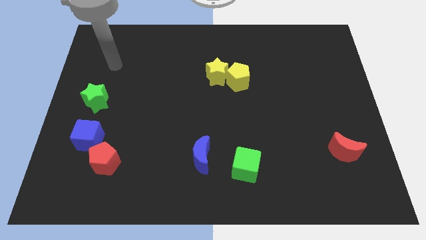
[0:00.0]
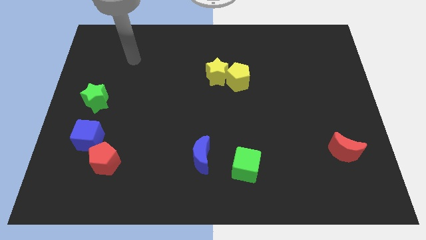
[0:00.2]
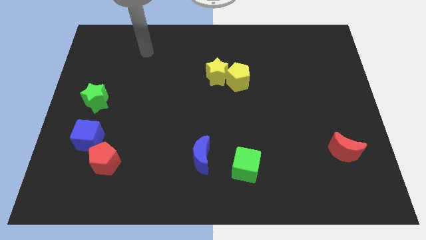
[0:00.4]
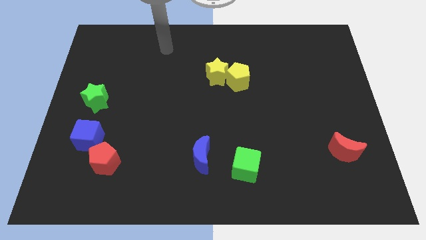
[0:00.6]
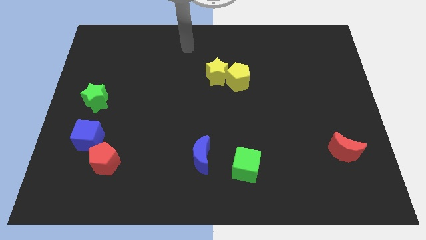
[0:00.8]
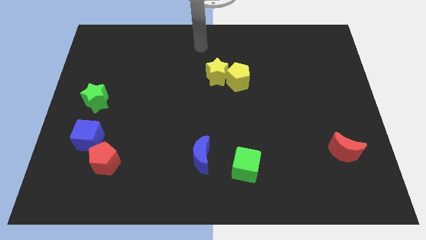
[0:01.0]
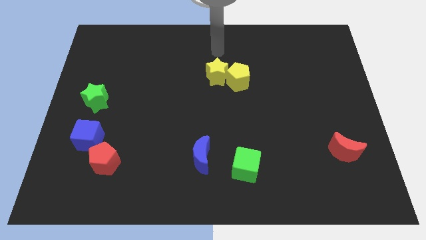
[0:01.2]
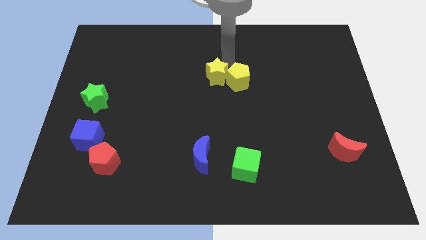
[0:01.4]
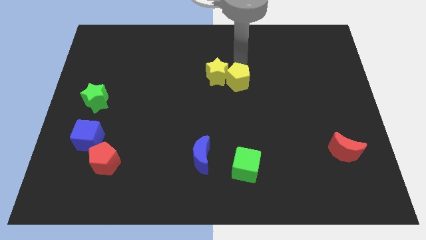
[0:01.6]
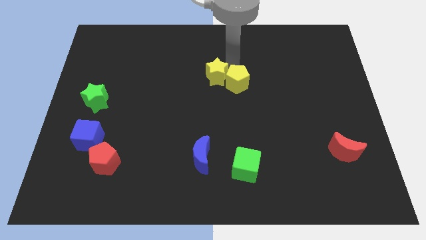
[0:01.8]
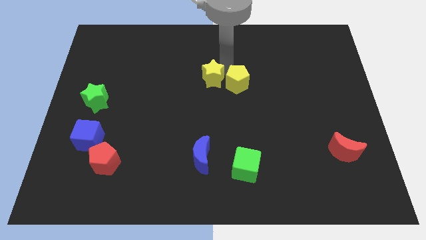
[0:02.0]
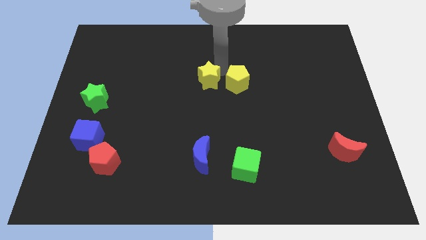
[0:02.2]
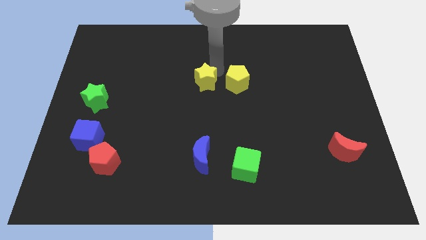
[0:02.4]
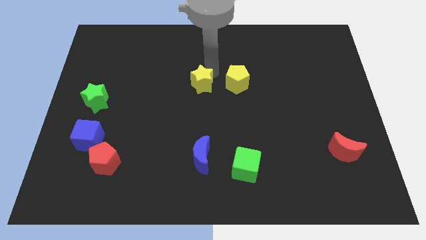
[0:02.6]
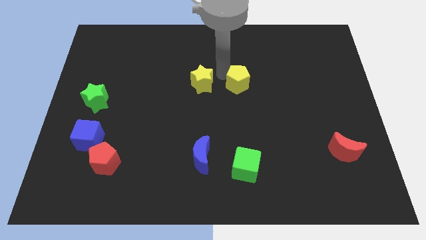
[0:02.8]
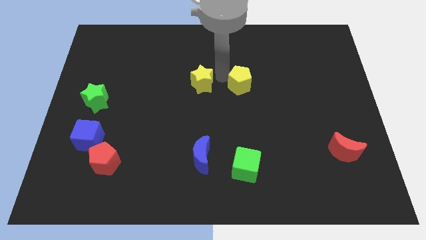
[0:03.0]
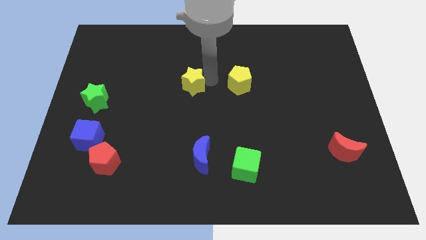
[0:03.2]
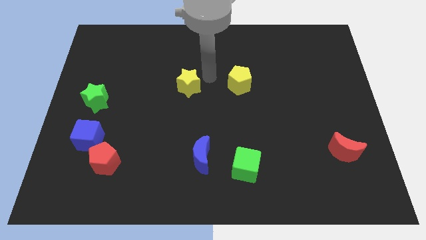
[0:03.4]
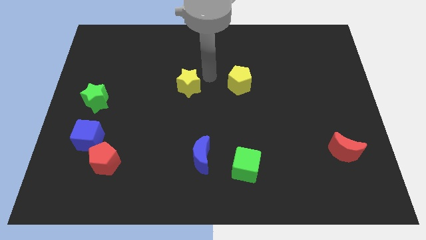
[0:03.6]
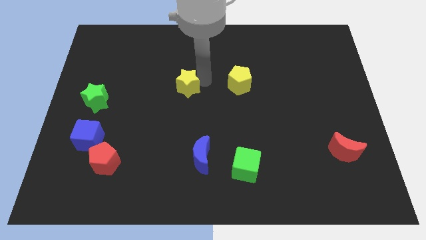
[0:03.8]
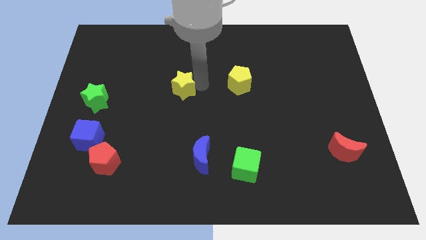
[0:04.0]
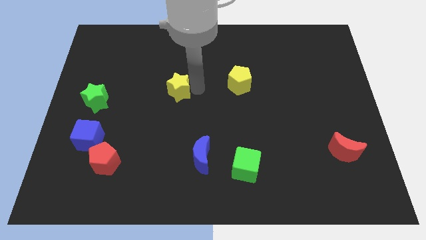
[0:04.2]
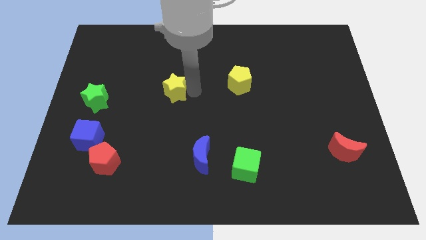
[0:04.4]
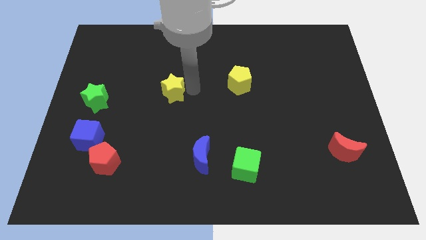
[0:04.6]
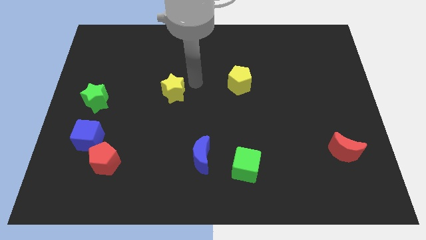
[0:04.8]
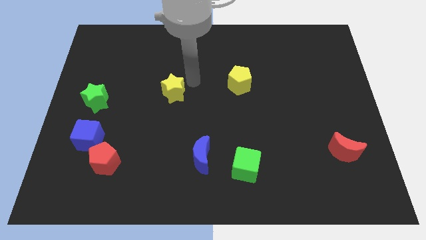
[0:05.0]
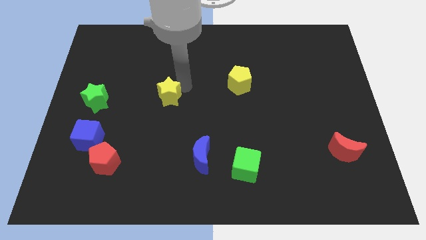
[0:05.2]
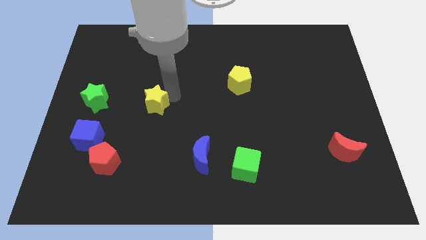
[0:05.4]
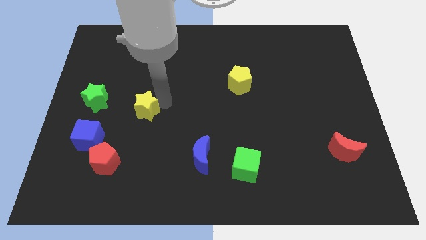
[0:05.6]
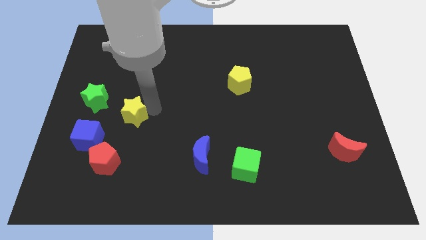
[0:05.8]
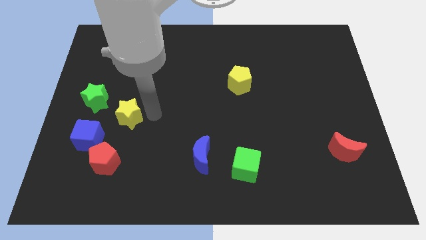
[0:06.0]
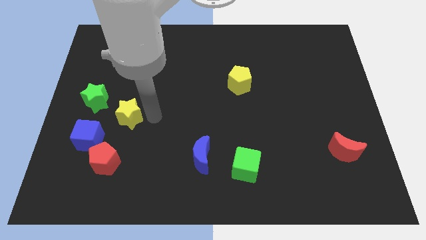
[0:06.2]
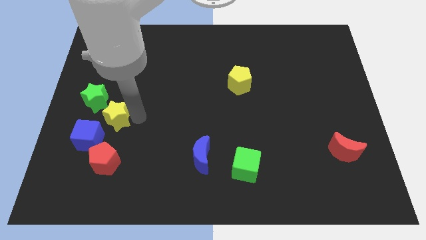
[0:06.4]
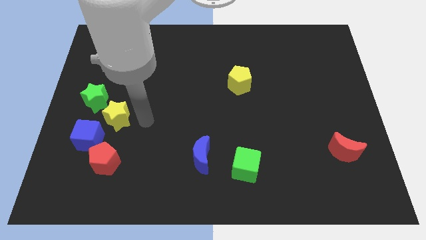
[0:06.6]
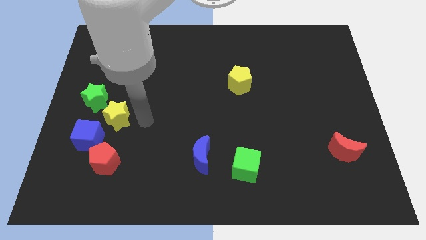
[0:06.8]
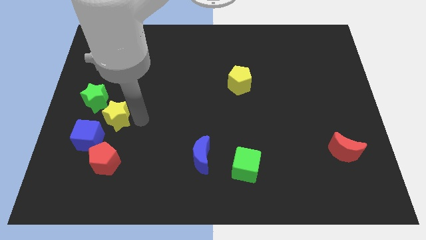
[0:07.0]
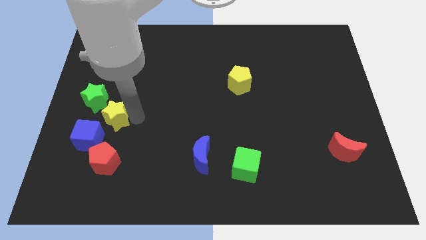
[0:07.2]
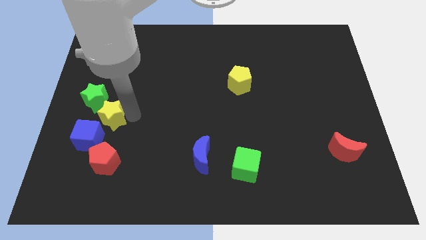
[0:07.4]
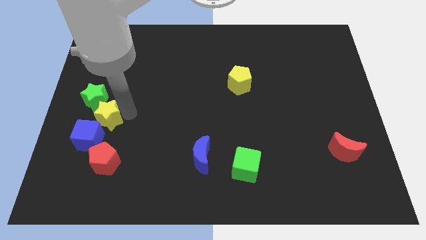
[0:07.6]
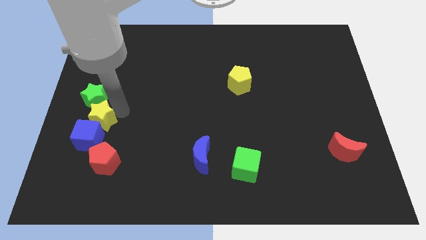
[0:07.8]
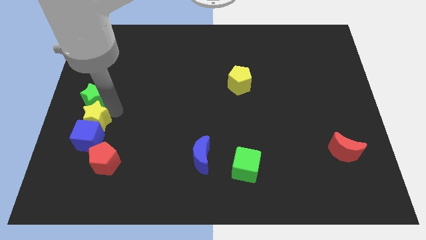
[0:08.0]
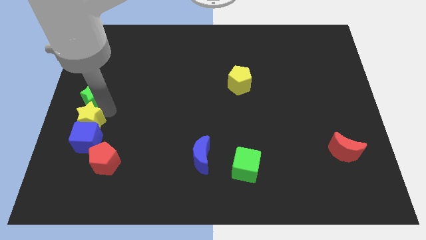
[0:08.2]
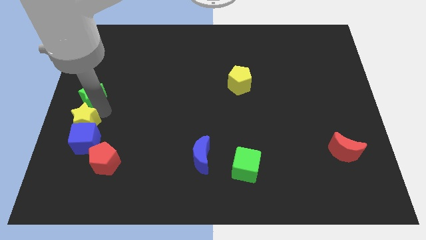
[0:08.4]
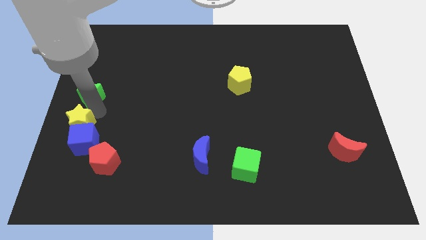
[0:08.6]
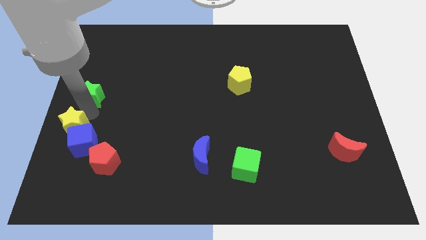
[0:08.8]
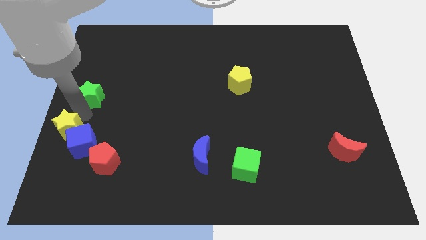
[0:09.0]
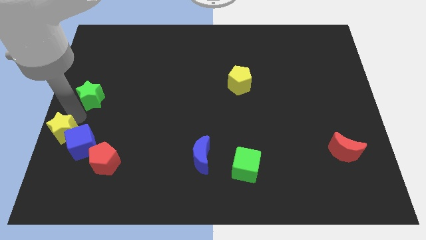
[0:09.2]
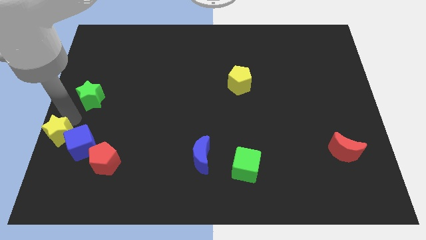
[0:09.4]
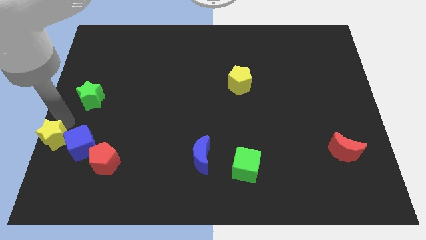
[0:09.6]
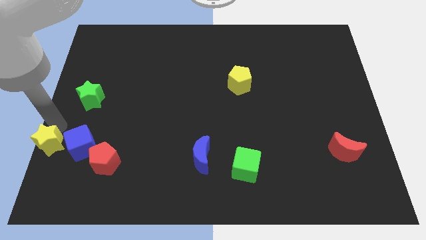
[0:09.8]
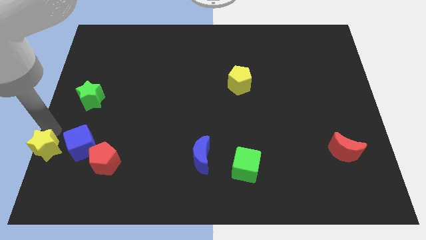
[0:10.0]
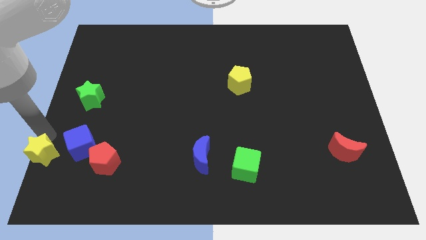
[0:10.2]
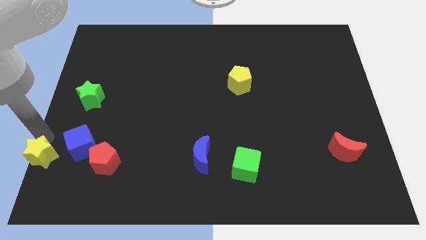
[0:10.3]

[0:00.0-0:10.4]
move the yellow star to the lower left corner

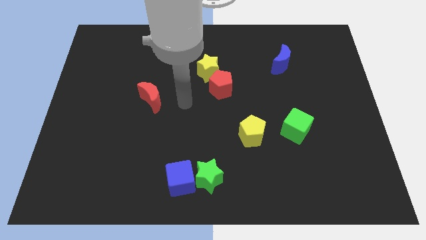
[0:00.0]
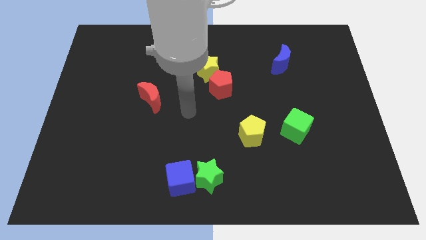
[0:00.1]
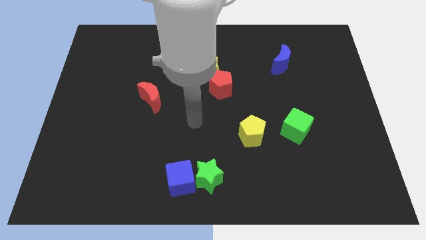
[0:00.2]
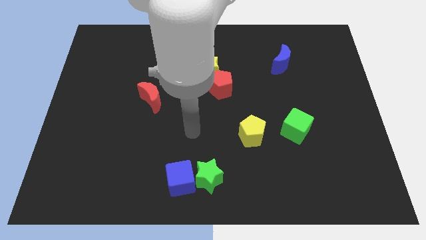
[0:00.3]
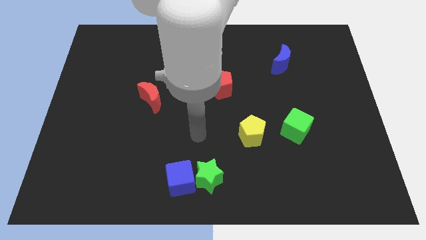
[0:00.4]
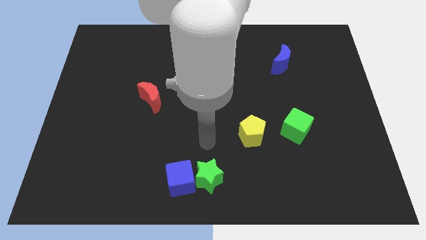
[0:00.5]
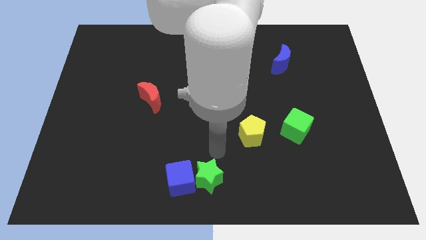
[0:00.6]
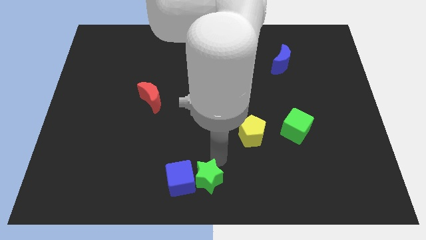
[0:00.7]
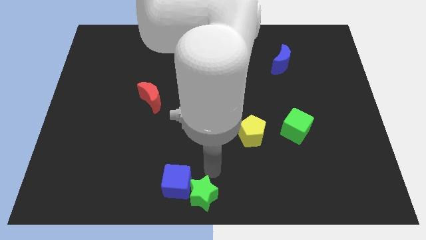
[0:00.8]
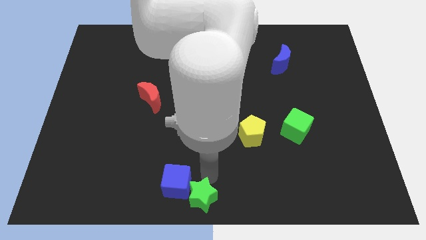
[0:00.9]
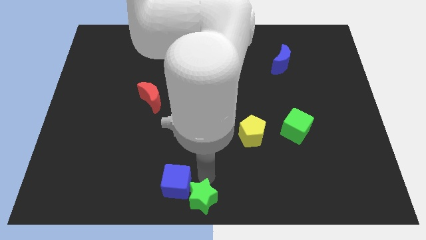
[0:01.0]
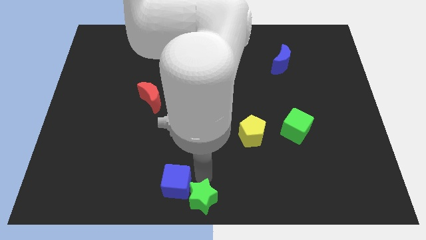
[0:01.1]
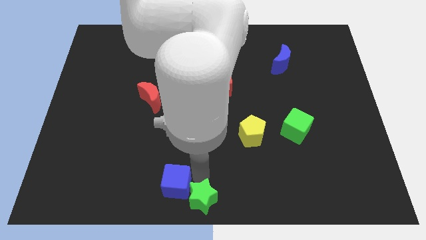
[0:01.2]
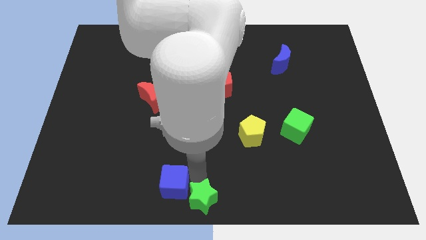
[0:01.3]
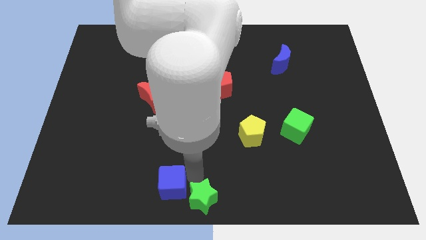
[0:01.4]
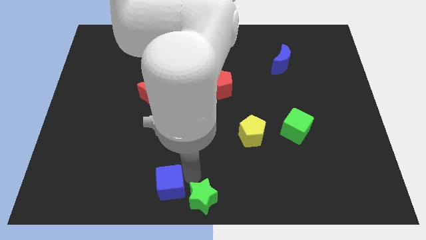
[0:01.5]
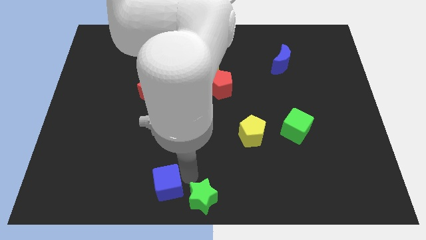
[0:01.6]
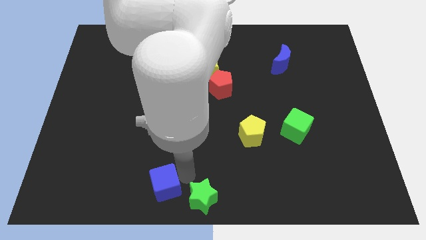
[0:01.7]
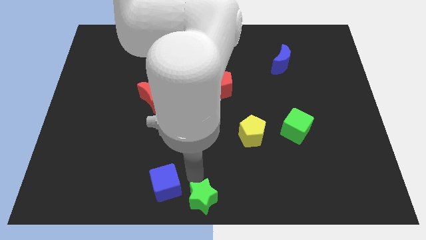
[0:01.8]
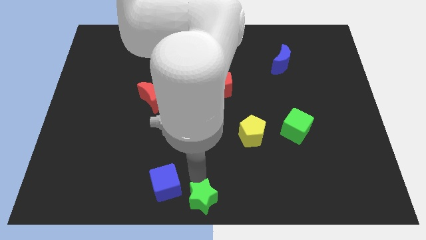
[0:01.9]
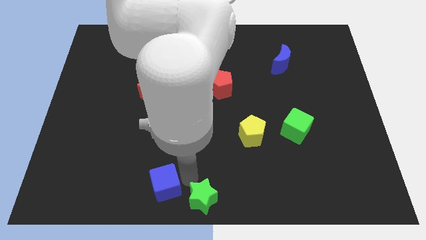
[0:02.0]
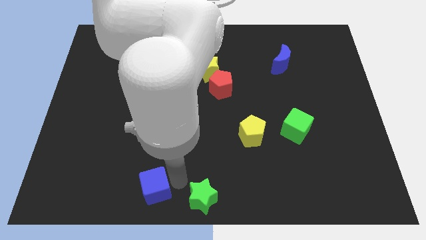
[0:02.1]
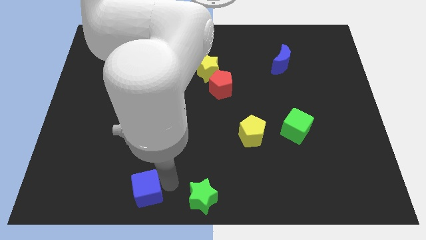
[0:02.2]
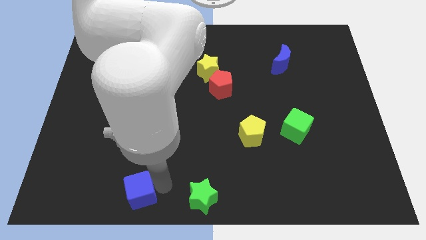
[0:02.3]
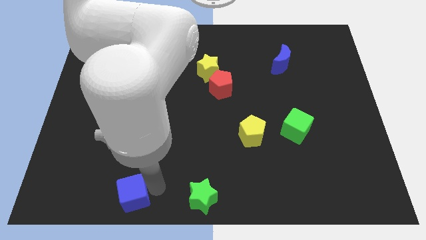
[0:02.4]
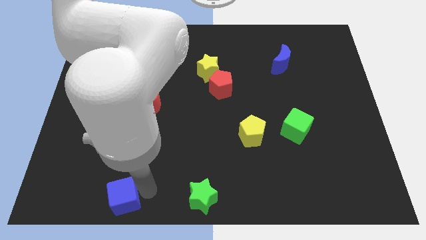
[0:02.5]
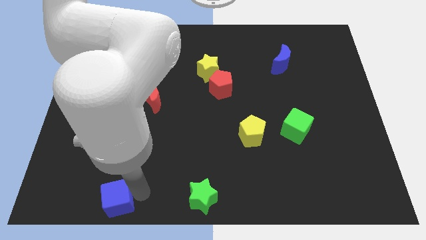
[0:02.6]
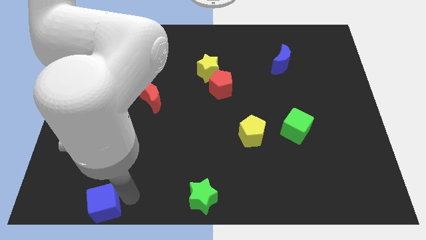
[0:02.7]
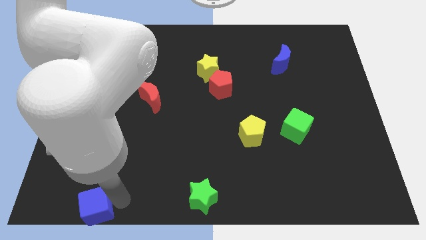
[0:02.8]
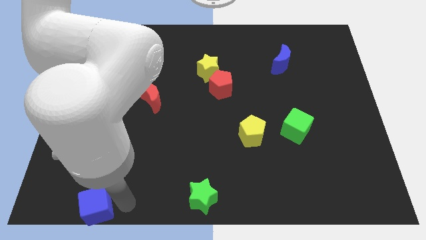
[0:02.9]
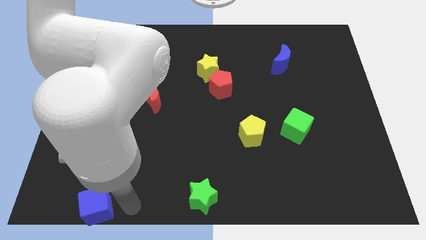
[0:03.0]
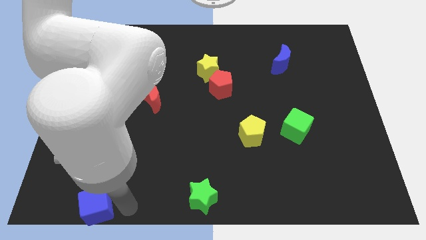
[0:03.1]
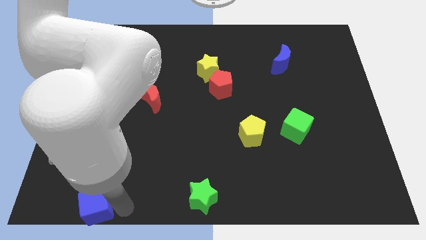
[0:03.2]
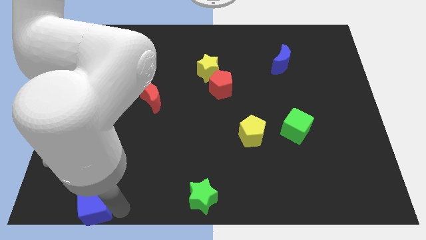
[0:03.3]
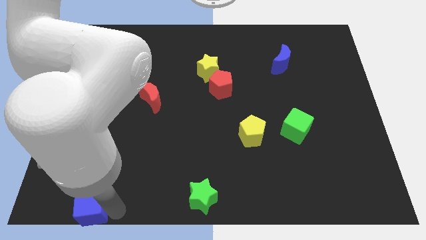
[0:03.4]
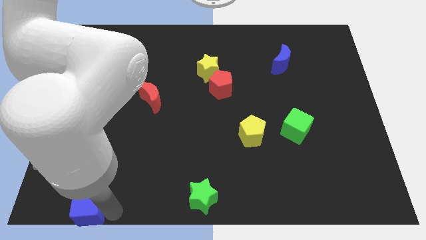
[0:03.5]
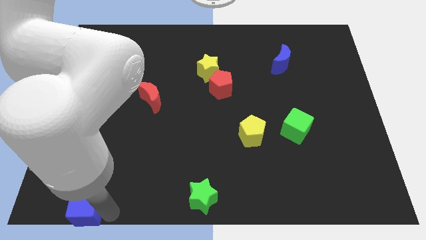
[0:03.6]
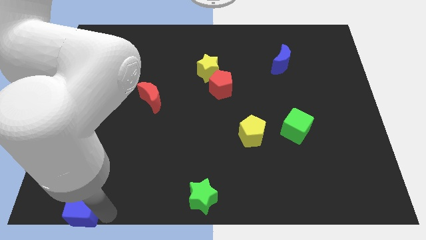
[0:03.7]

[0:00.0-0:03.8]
push the blue cube to the bottom left
